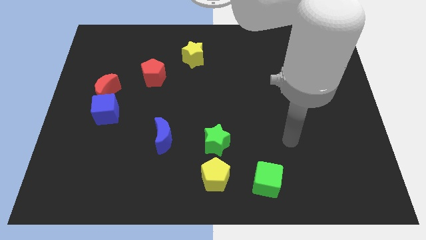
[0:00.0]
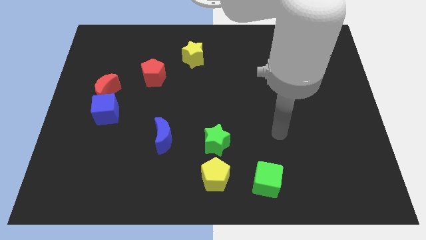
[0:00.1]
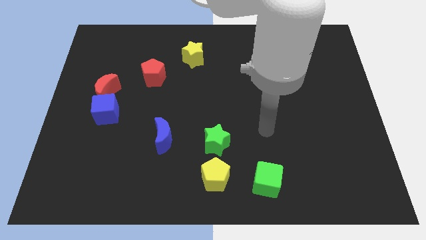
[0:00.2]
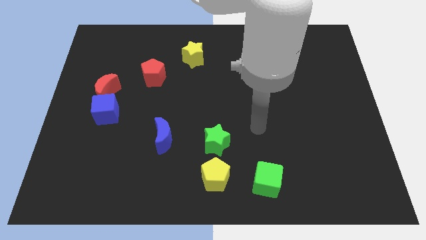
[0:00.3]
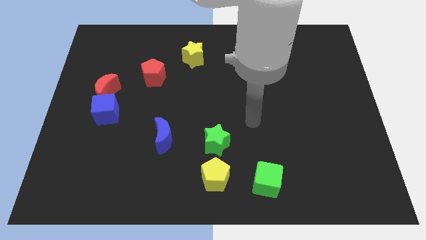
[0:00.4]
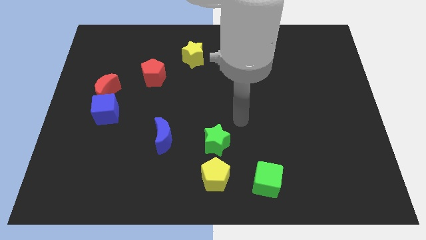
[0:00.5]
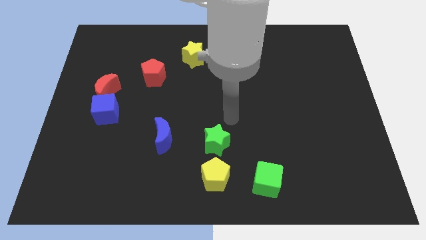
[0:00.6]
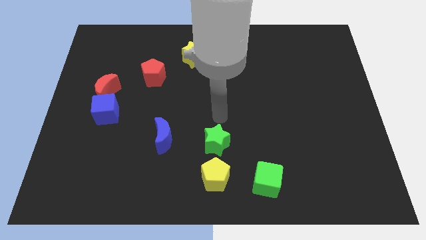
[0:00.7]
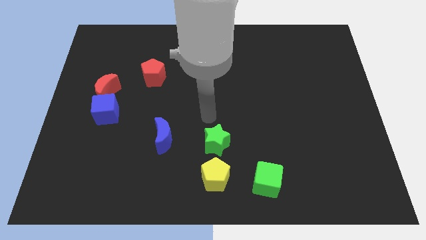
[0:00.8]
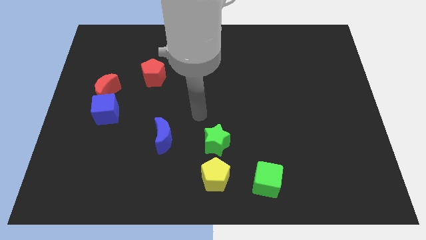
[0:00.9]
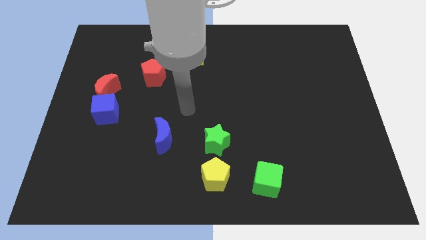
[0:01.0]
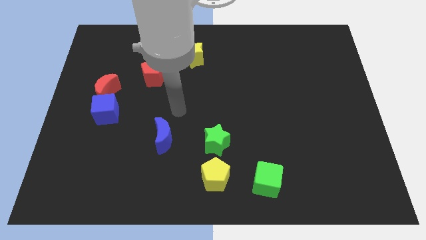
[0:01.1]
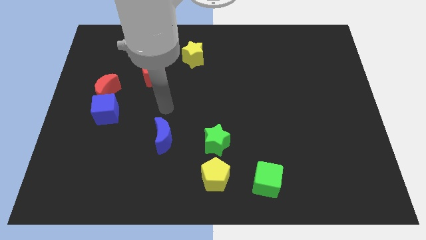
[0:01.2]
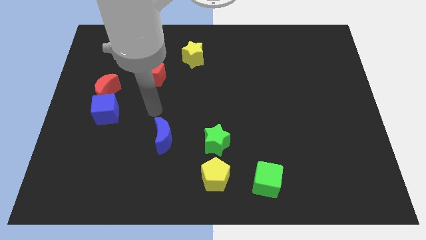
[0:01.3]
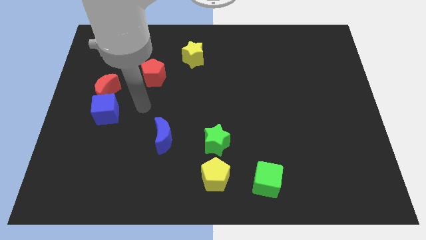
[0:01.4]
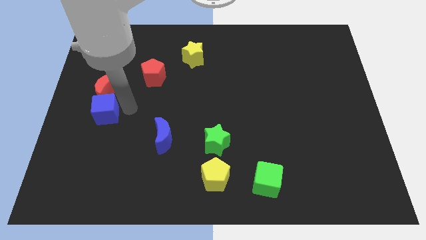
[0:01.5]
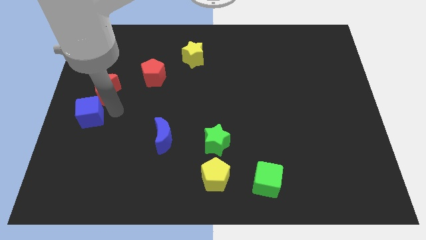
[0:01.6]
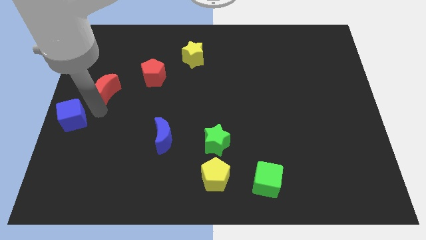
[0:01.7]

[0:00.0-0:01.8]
move the red moon away from the blue cube

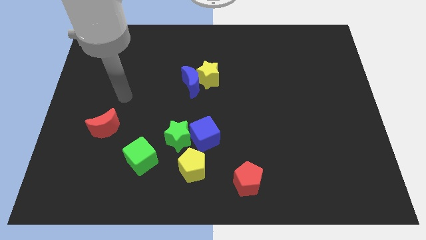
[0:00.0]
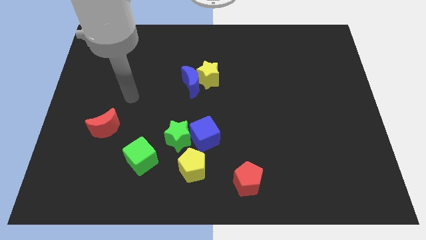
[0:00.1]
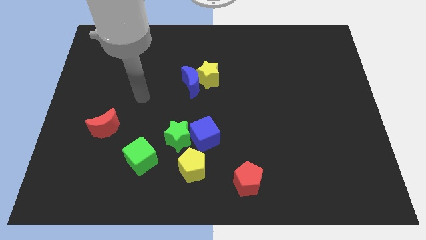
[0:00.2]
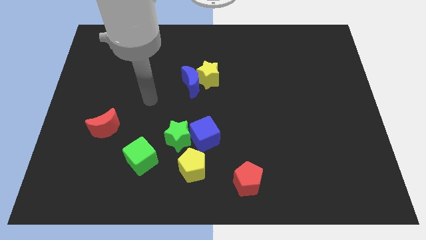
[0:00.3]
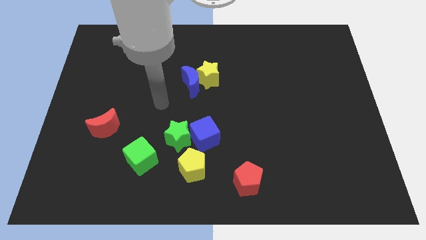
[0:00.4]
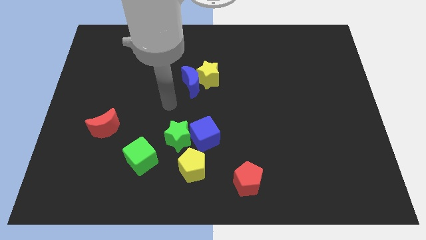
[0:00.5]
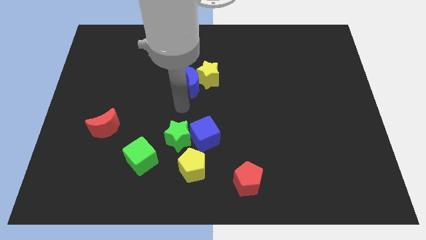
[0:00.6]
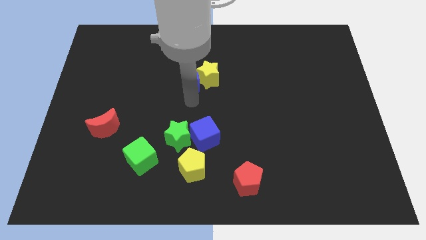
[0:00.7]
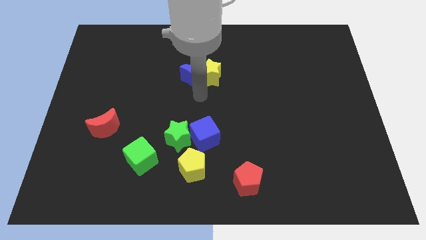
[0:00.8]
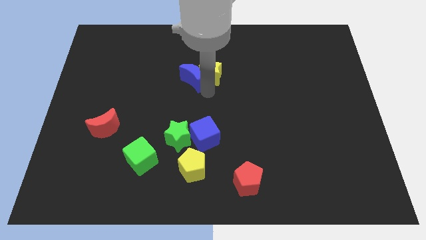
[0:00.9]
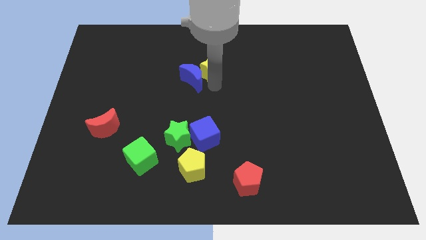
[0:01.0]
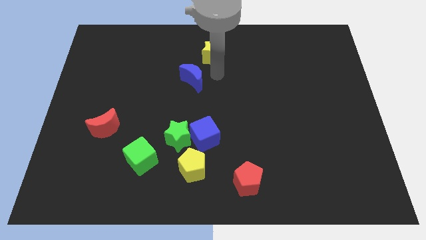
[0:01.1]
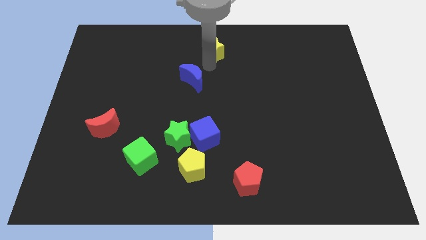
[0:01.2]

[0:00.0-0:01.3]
move the blue moon away from the yellow star

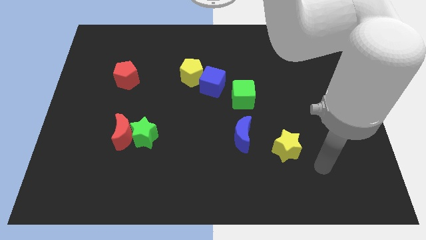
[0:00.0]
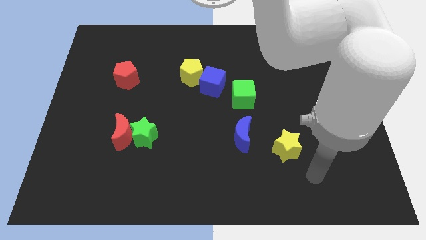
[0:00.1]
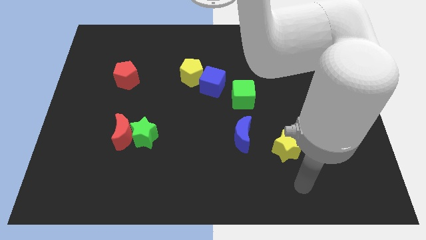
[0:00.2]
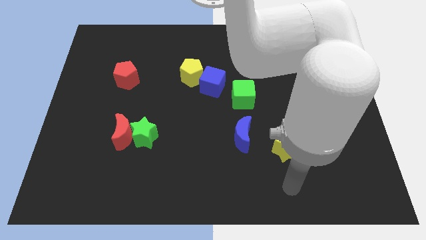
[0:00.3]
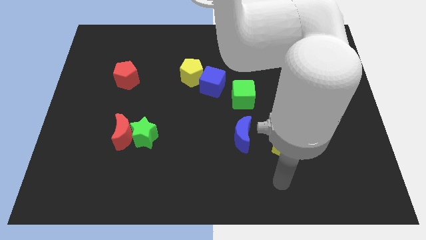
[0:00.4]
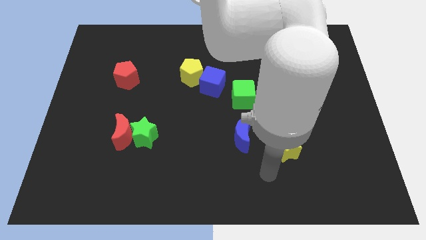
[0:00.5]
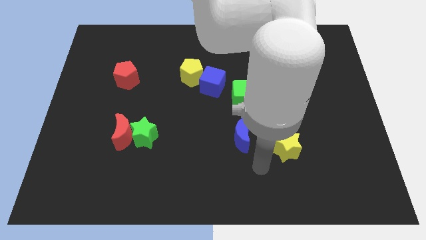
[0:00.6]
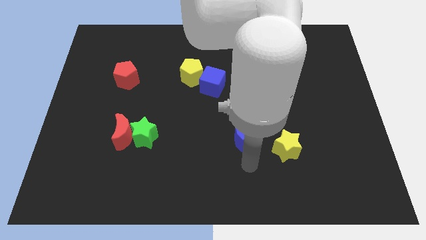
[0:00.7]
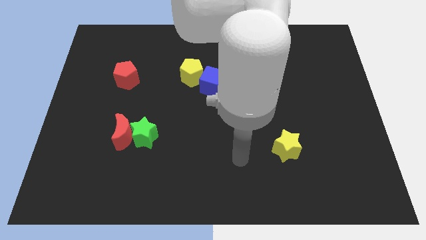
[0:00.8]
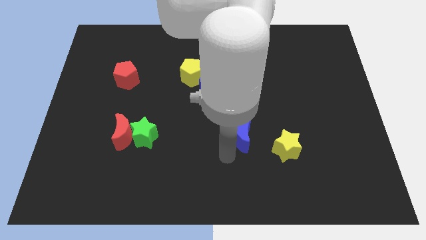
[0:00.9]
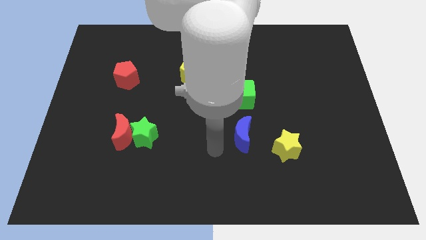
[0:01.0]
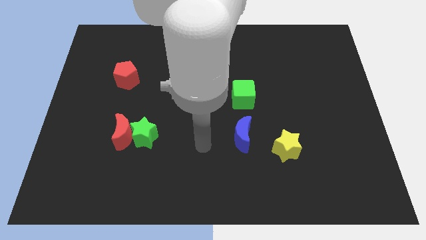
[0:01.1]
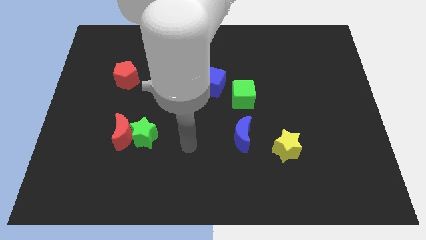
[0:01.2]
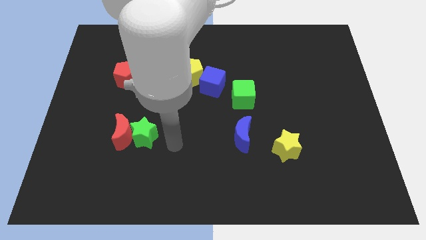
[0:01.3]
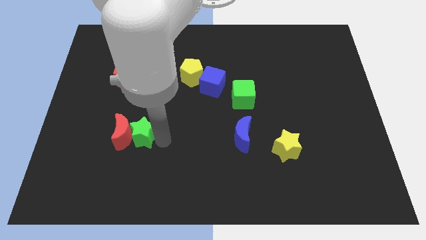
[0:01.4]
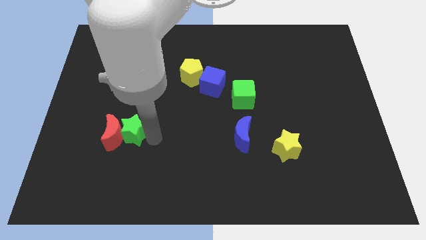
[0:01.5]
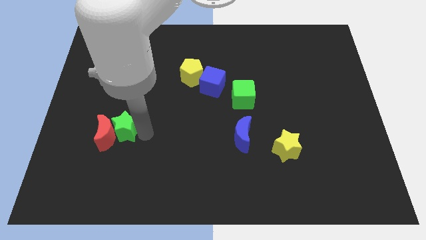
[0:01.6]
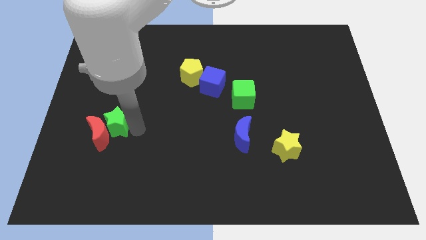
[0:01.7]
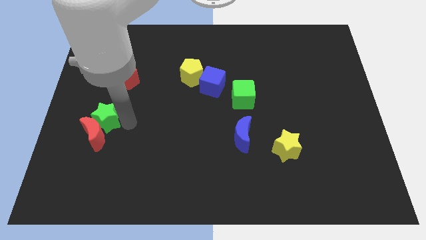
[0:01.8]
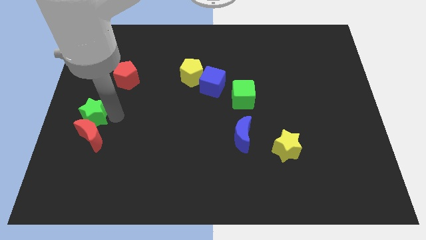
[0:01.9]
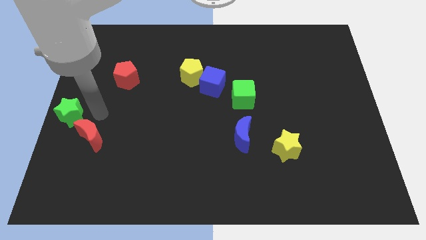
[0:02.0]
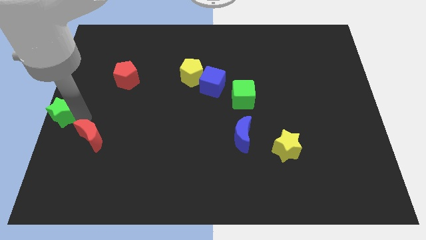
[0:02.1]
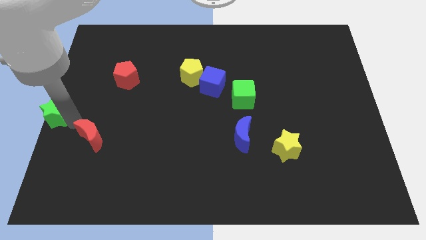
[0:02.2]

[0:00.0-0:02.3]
pull the red moon apart from the green star

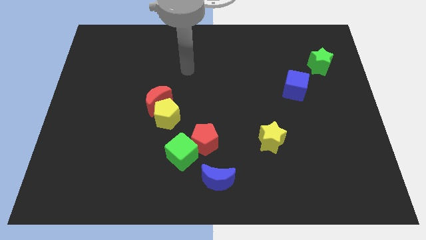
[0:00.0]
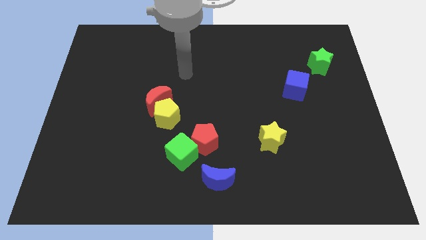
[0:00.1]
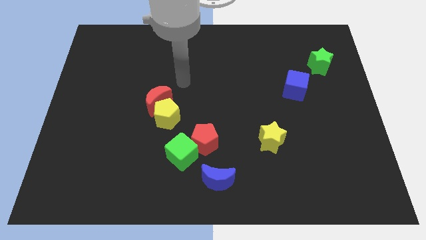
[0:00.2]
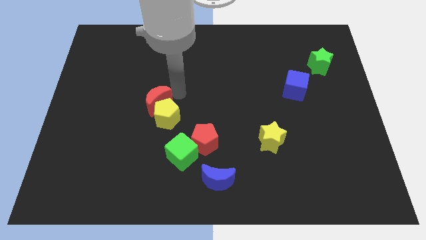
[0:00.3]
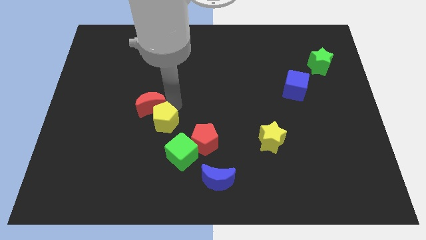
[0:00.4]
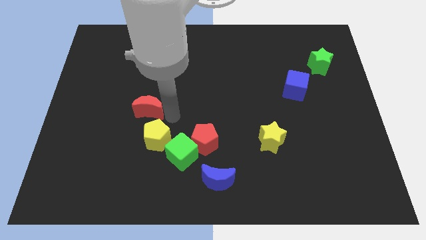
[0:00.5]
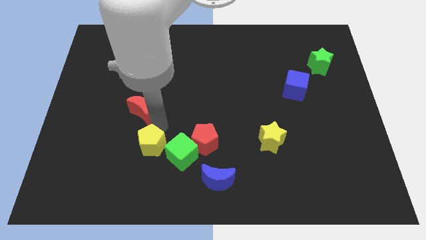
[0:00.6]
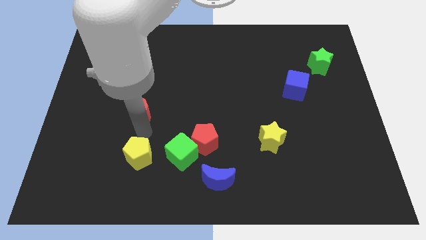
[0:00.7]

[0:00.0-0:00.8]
move the red moon away from the yellow pentagon

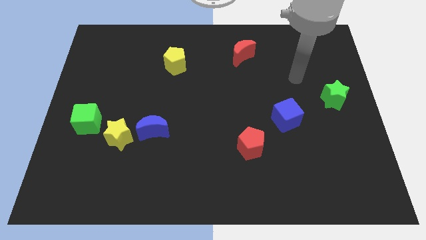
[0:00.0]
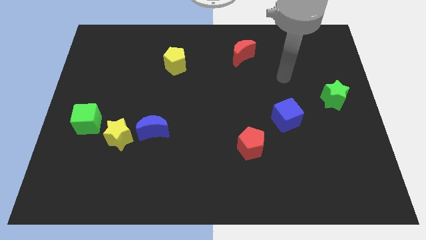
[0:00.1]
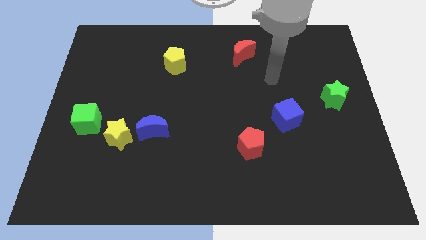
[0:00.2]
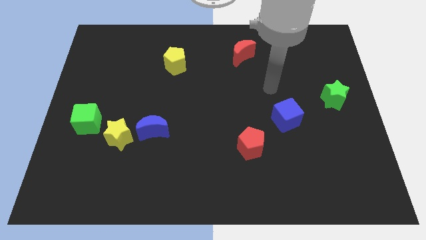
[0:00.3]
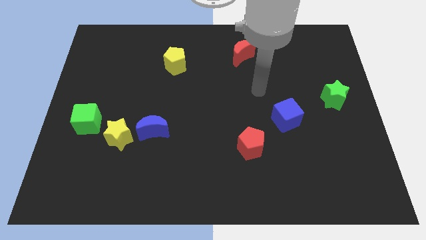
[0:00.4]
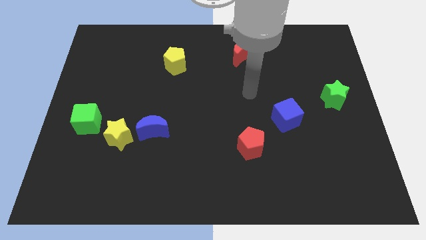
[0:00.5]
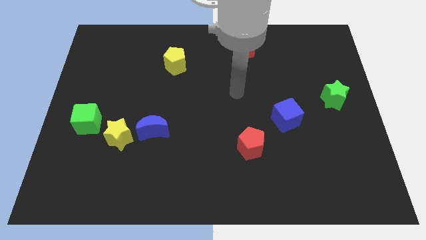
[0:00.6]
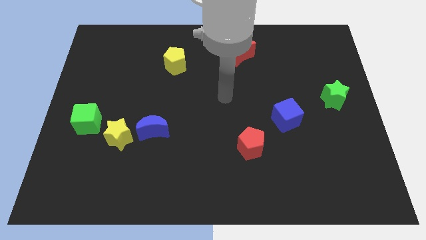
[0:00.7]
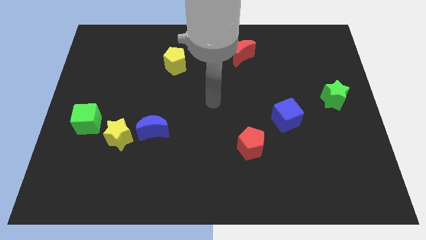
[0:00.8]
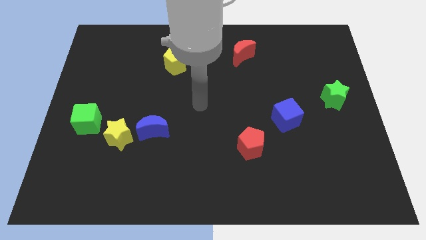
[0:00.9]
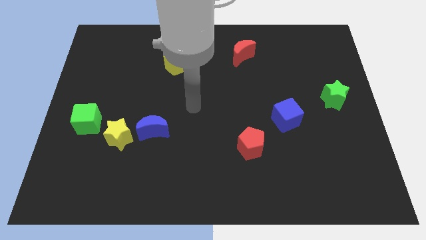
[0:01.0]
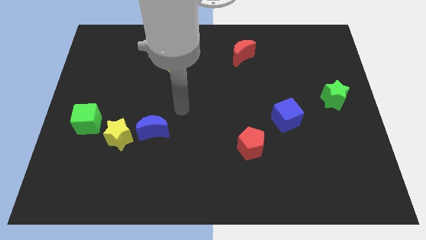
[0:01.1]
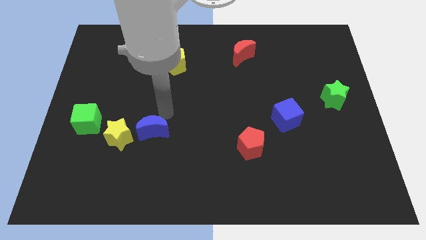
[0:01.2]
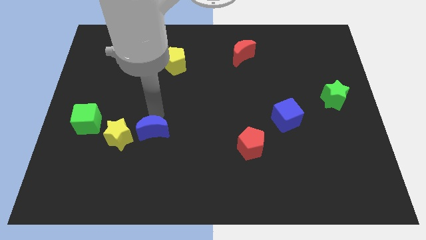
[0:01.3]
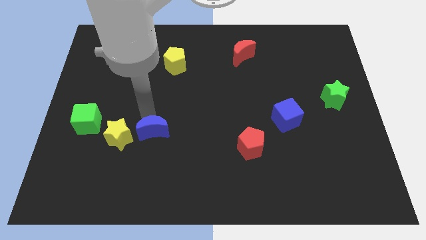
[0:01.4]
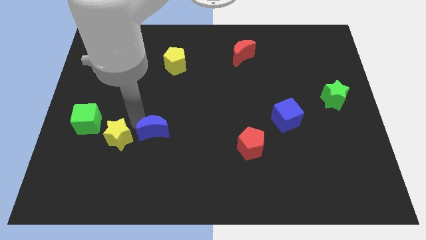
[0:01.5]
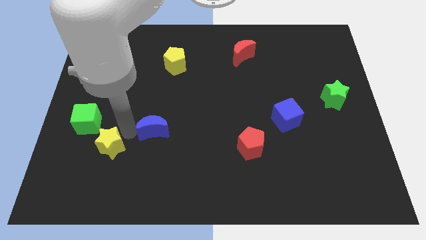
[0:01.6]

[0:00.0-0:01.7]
pull the blue moon apart from the yellow star

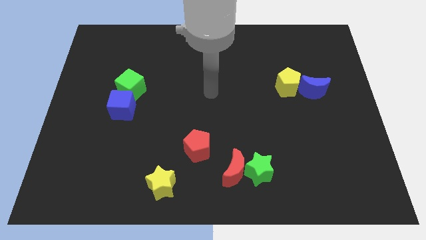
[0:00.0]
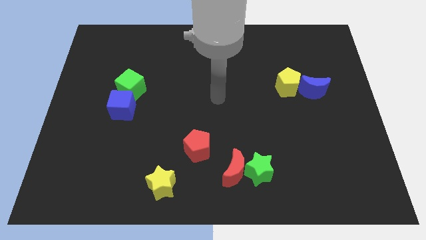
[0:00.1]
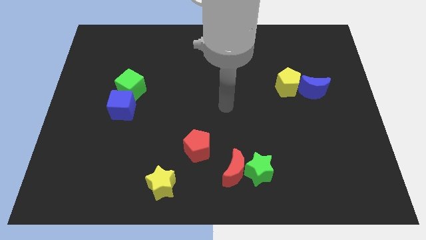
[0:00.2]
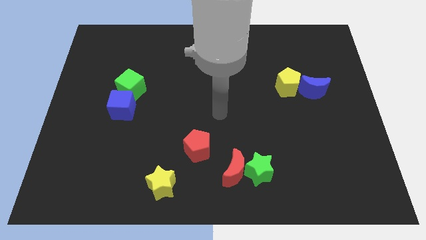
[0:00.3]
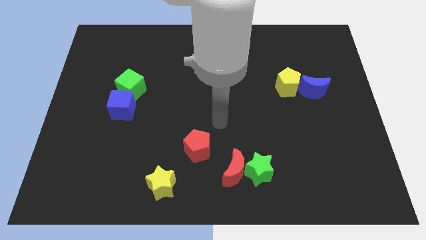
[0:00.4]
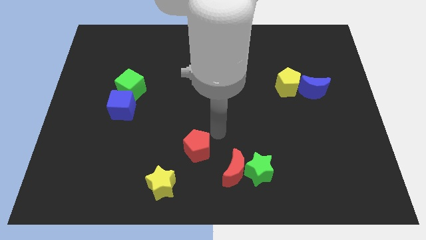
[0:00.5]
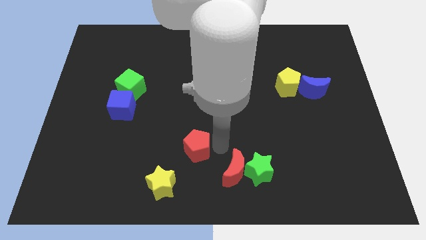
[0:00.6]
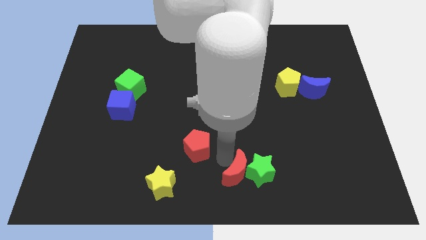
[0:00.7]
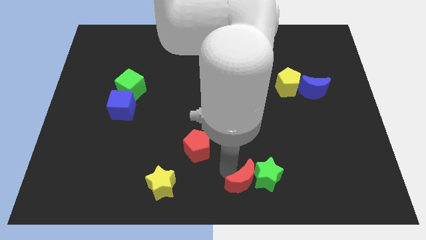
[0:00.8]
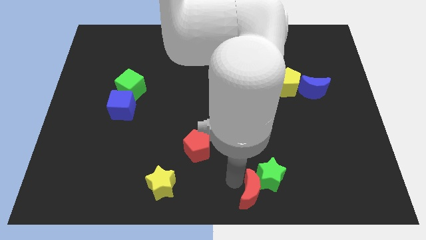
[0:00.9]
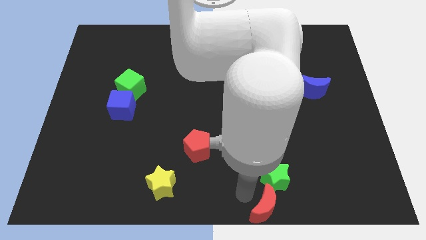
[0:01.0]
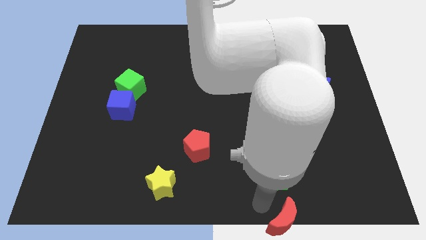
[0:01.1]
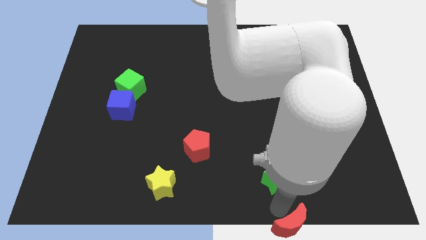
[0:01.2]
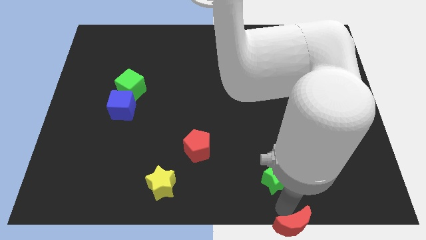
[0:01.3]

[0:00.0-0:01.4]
pull the green star apart from the red moon

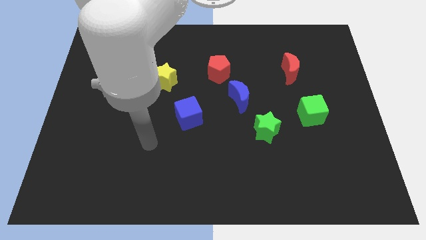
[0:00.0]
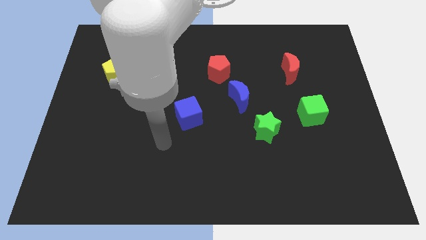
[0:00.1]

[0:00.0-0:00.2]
pull the red pentagon apart from the blue moon
